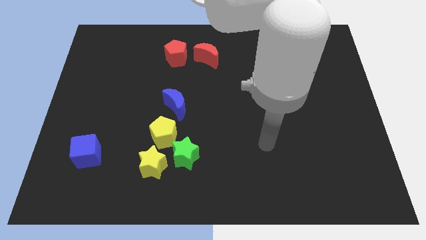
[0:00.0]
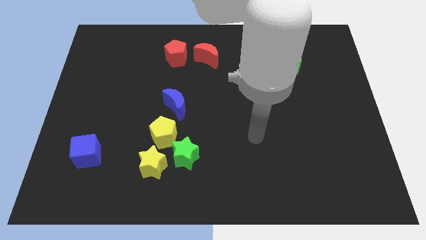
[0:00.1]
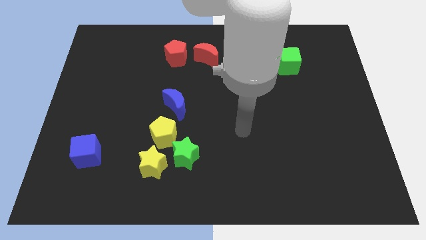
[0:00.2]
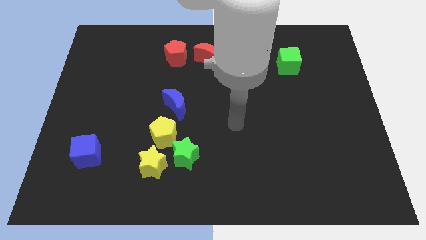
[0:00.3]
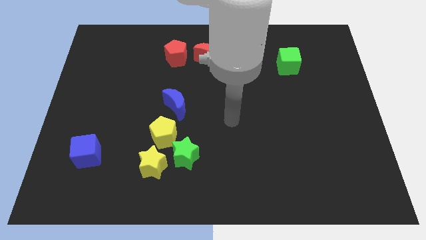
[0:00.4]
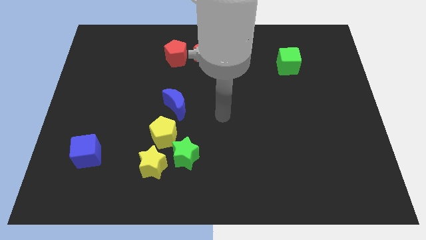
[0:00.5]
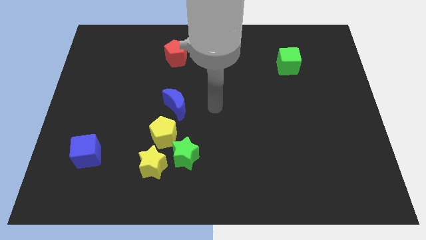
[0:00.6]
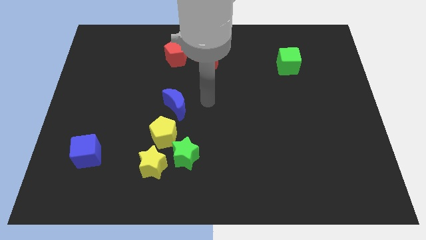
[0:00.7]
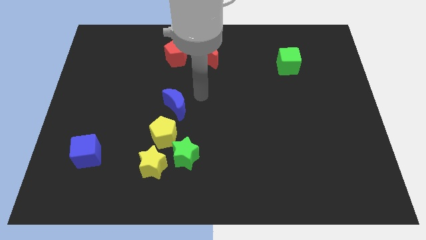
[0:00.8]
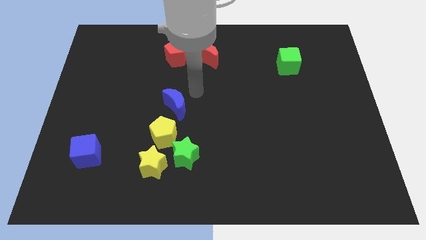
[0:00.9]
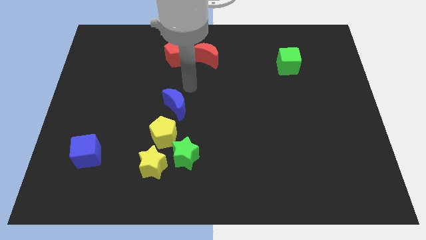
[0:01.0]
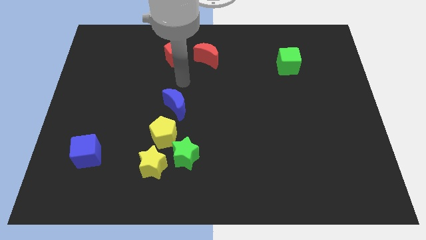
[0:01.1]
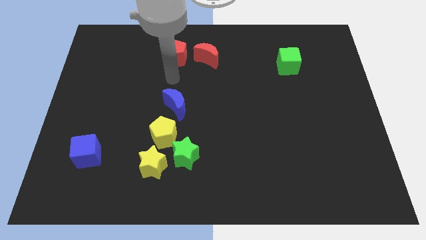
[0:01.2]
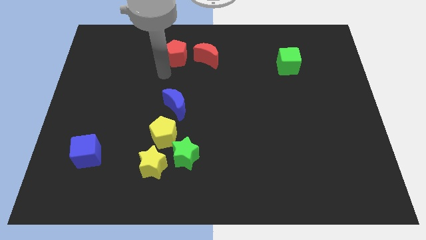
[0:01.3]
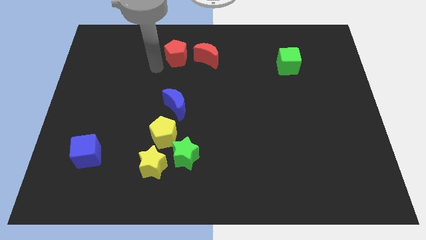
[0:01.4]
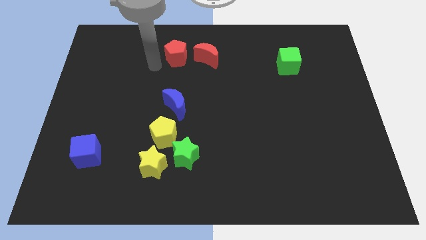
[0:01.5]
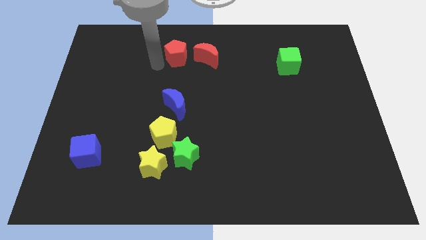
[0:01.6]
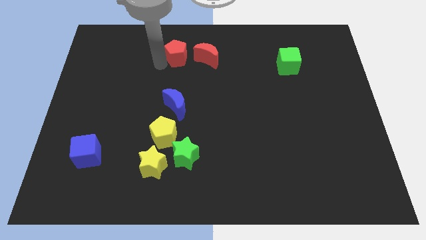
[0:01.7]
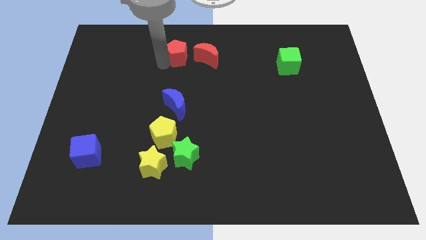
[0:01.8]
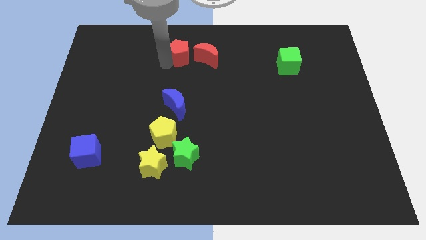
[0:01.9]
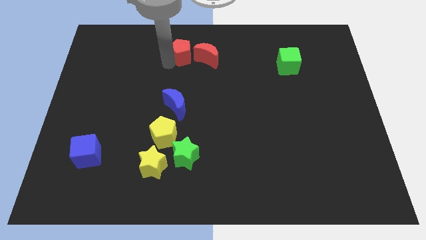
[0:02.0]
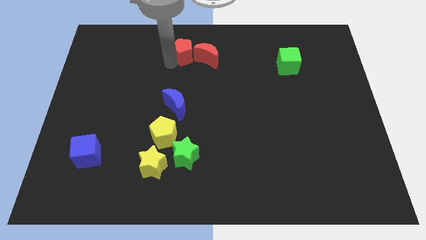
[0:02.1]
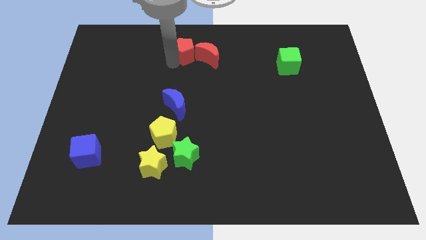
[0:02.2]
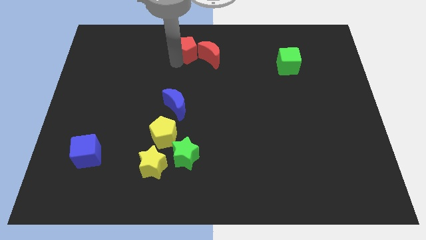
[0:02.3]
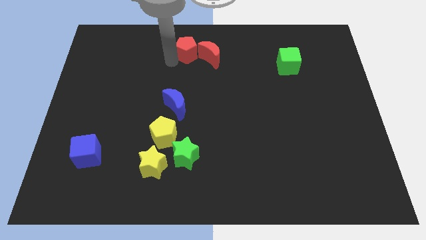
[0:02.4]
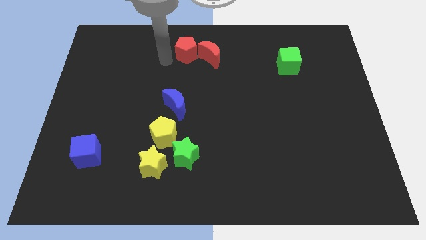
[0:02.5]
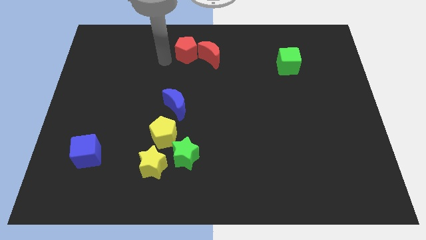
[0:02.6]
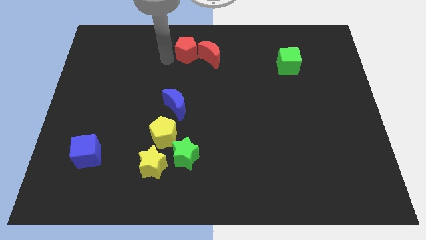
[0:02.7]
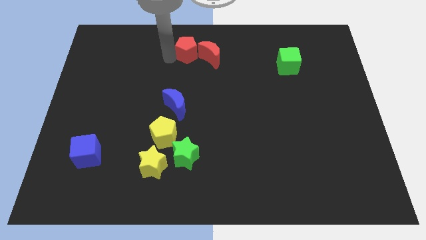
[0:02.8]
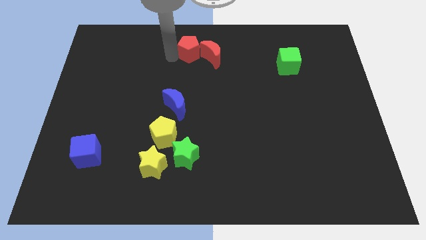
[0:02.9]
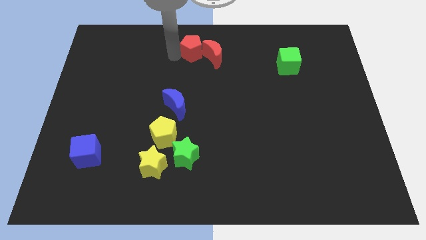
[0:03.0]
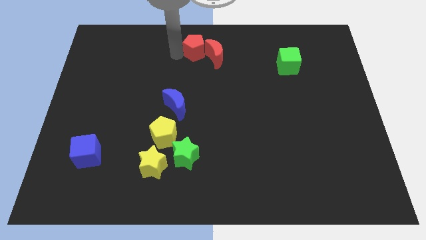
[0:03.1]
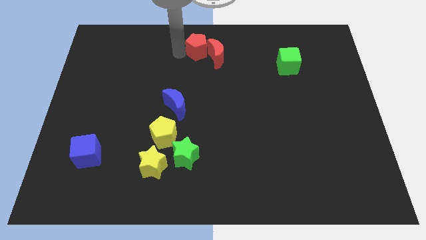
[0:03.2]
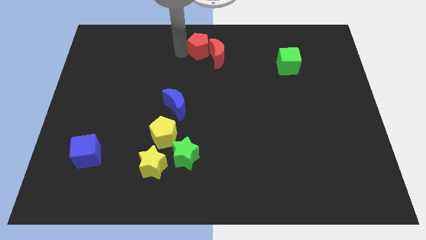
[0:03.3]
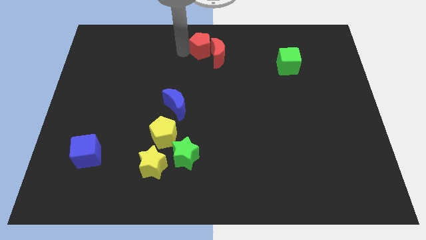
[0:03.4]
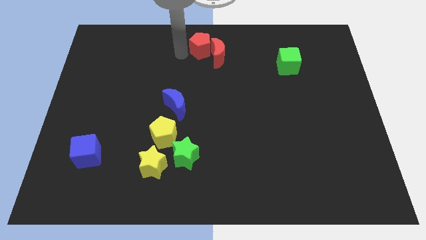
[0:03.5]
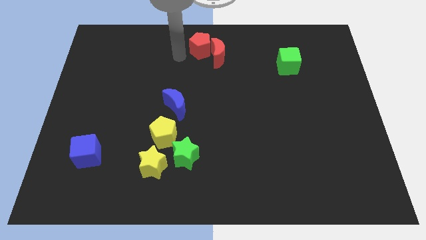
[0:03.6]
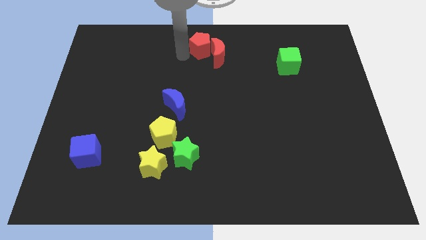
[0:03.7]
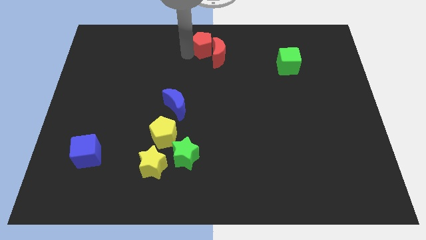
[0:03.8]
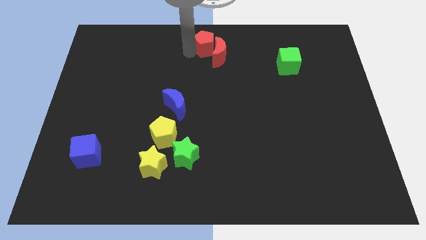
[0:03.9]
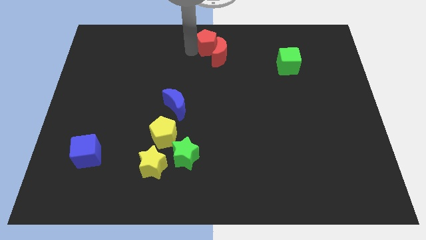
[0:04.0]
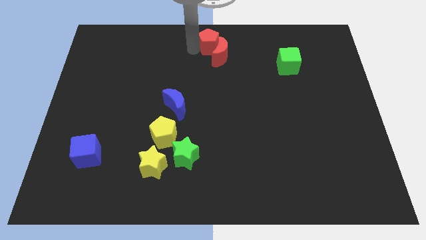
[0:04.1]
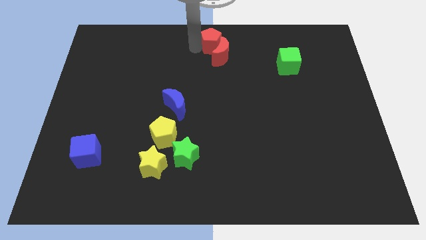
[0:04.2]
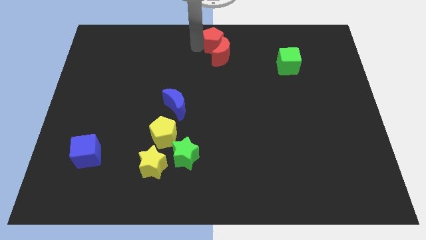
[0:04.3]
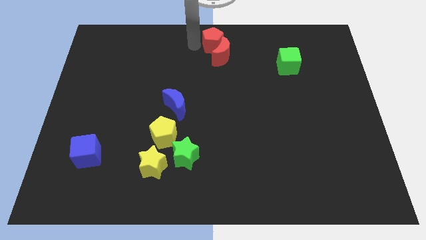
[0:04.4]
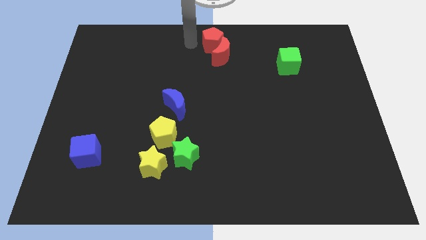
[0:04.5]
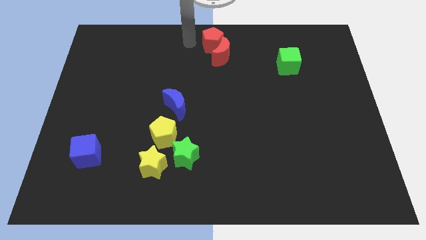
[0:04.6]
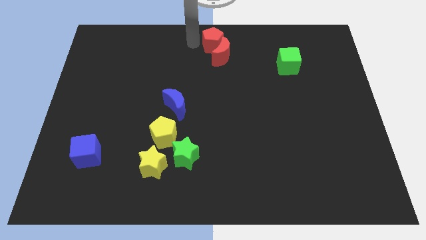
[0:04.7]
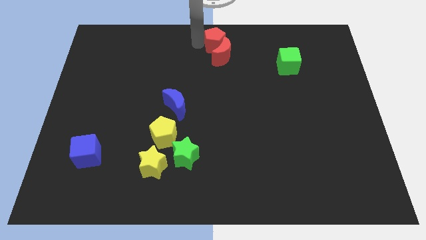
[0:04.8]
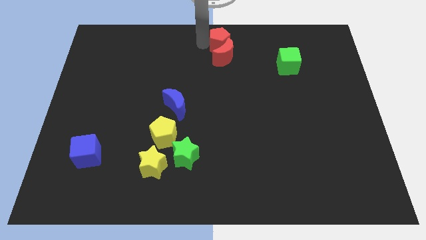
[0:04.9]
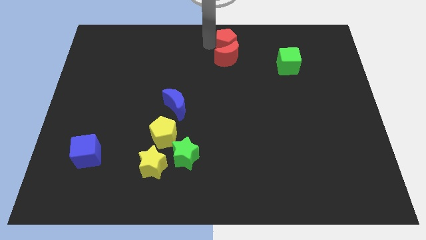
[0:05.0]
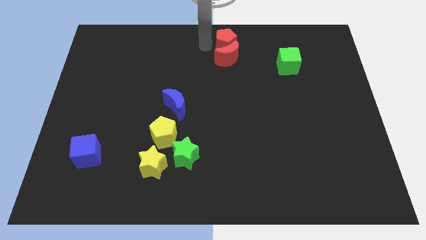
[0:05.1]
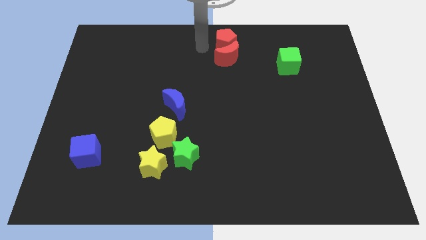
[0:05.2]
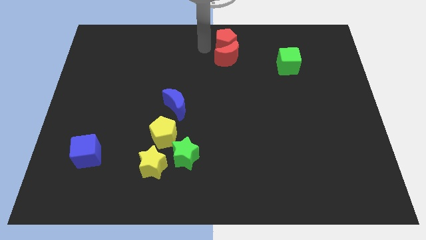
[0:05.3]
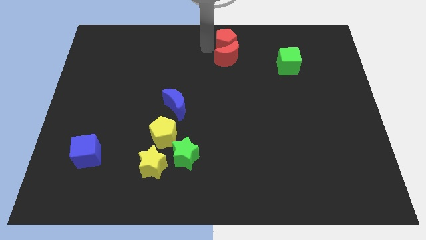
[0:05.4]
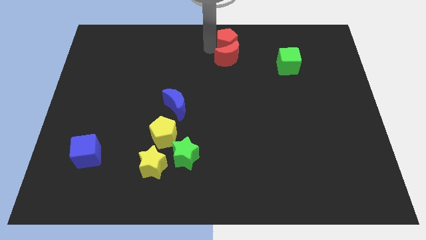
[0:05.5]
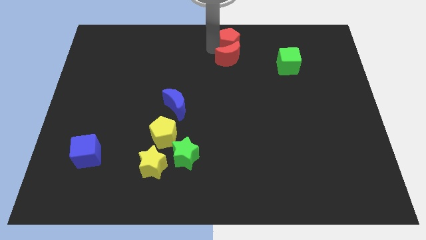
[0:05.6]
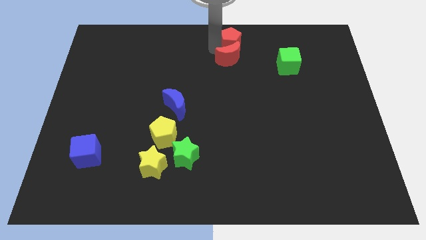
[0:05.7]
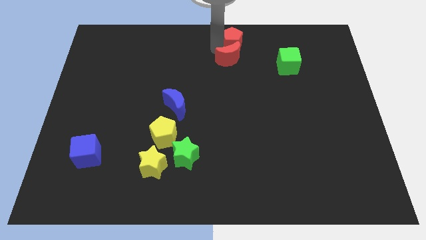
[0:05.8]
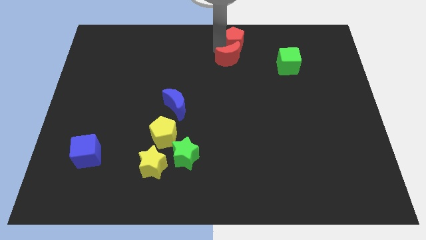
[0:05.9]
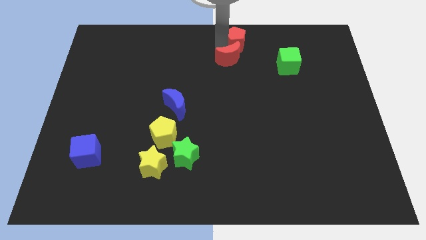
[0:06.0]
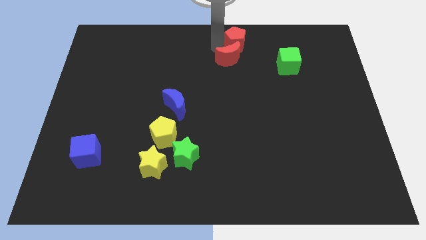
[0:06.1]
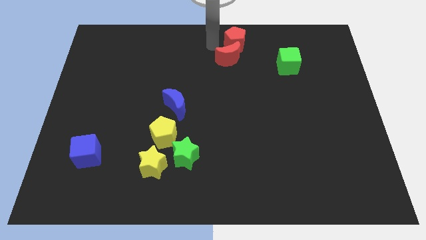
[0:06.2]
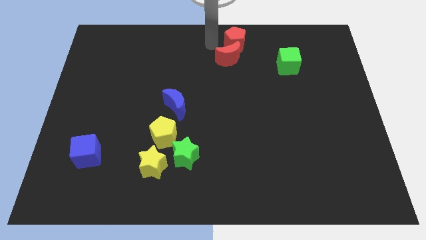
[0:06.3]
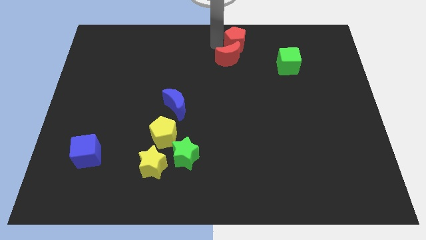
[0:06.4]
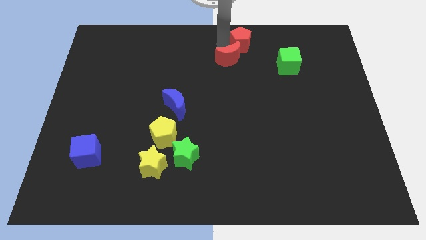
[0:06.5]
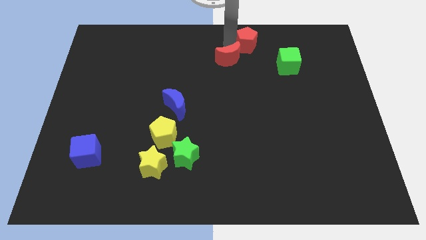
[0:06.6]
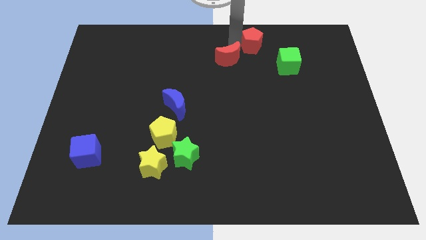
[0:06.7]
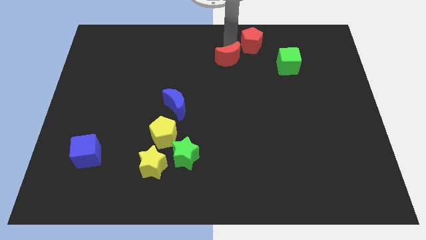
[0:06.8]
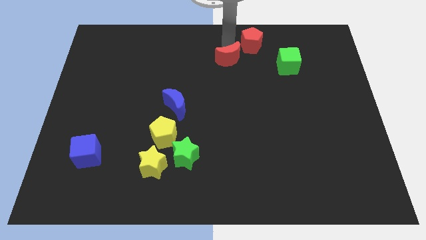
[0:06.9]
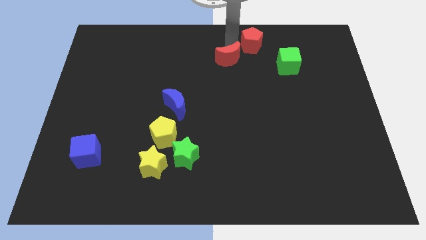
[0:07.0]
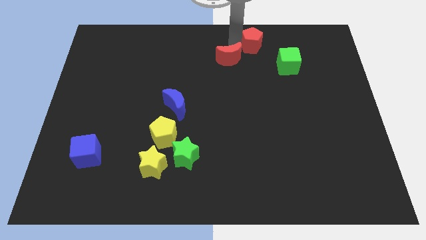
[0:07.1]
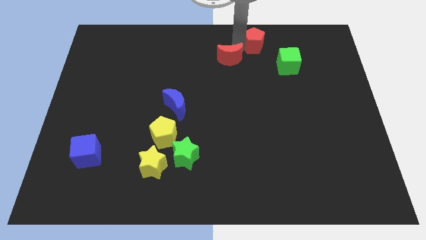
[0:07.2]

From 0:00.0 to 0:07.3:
move the red pentagon to the right

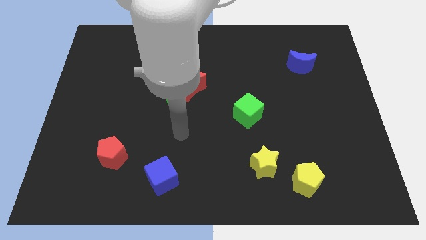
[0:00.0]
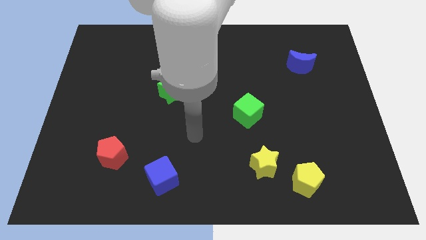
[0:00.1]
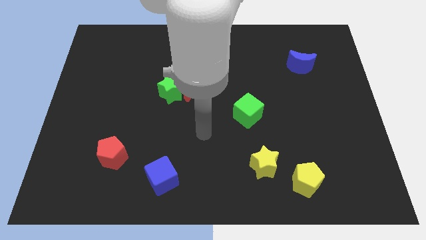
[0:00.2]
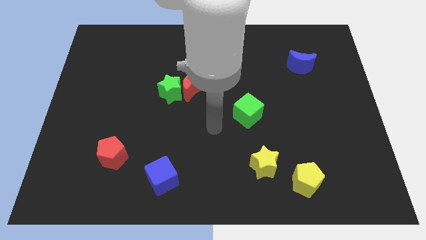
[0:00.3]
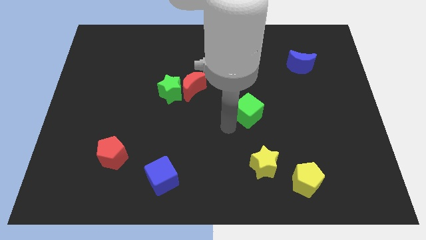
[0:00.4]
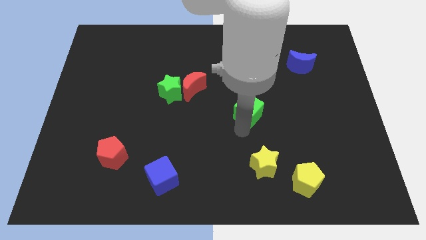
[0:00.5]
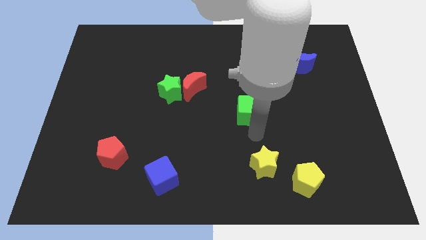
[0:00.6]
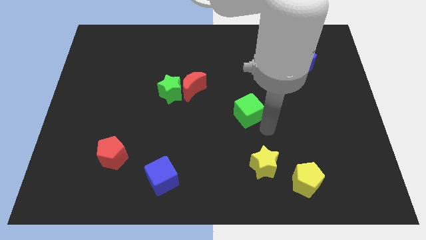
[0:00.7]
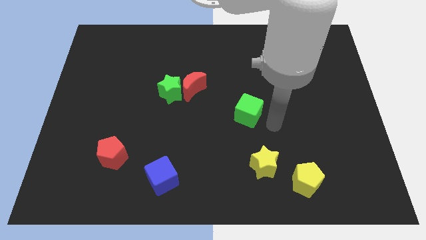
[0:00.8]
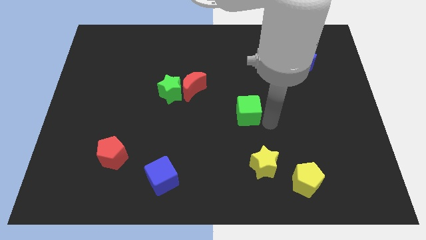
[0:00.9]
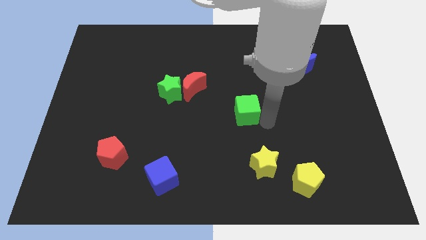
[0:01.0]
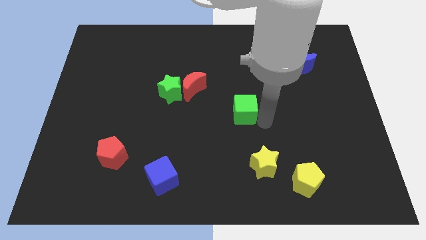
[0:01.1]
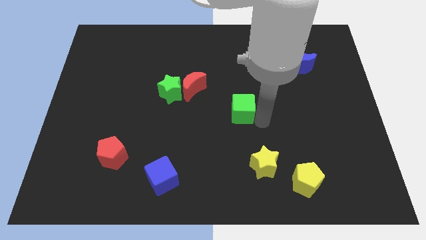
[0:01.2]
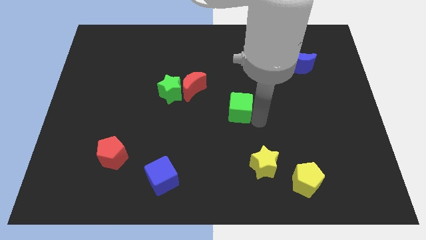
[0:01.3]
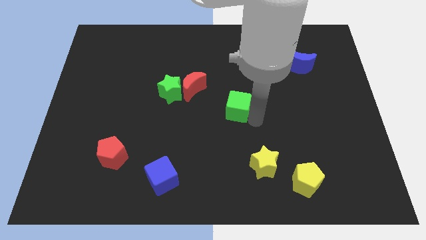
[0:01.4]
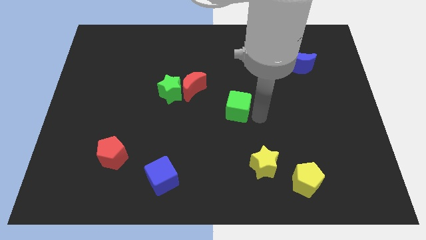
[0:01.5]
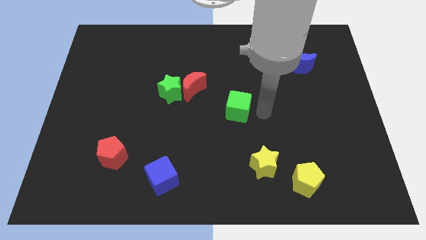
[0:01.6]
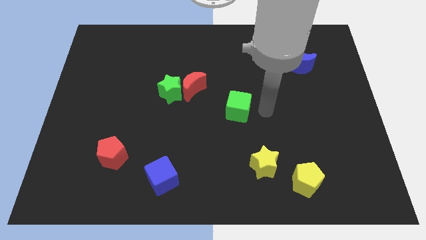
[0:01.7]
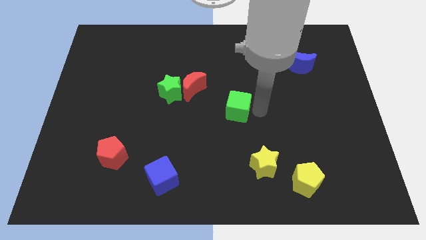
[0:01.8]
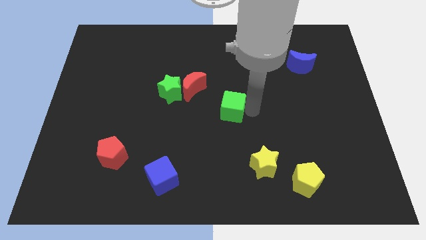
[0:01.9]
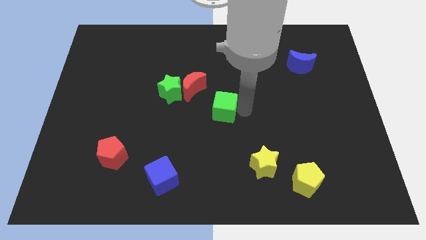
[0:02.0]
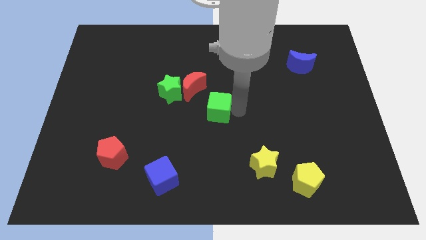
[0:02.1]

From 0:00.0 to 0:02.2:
slide the green cube to the left a bit
